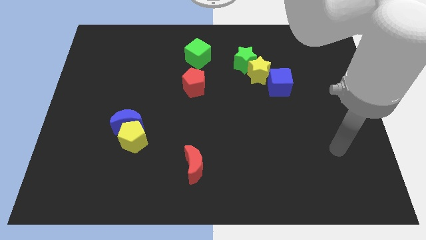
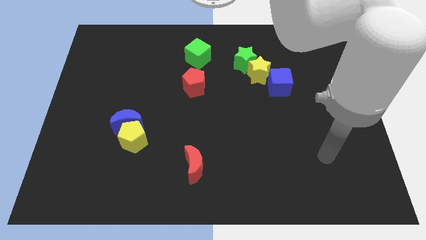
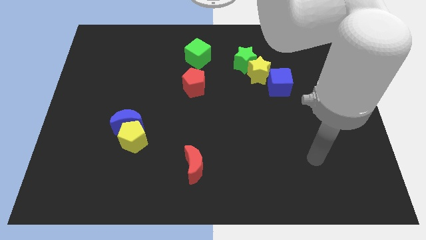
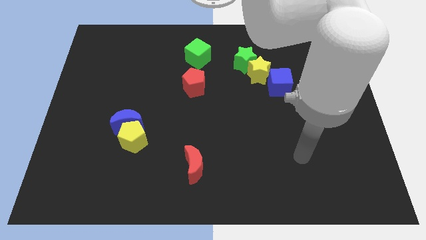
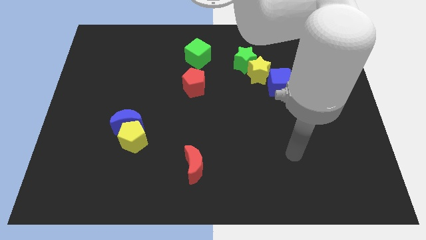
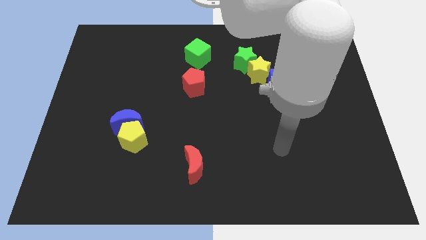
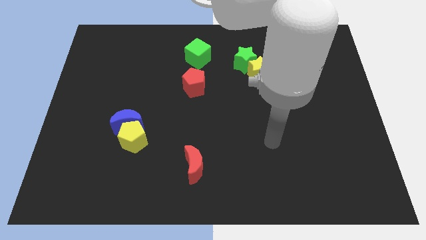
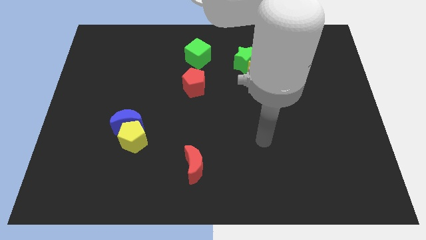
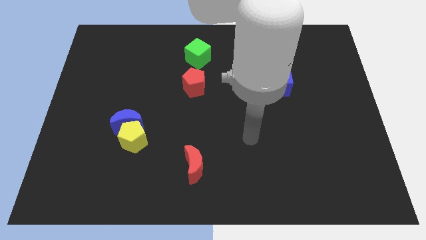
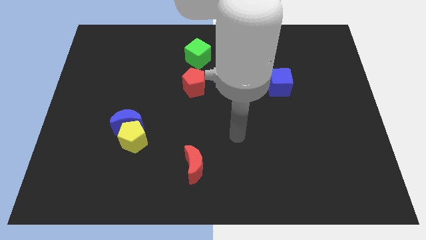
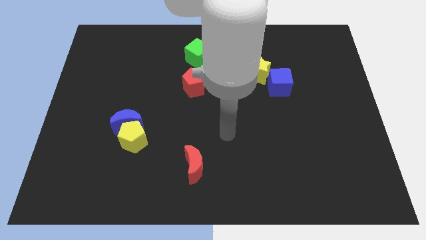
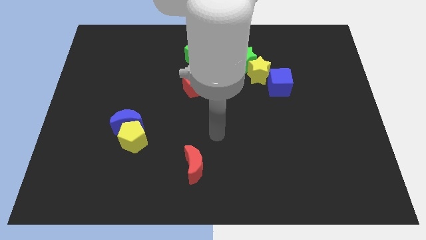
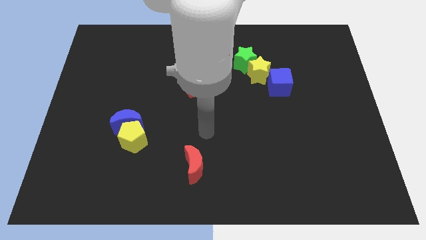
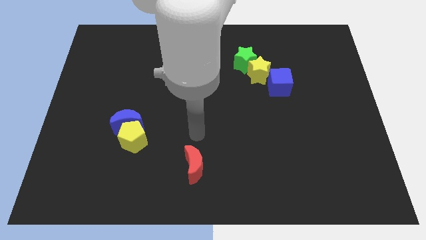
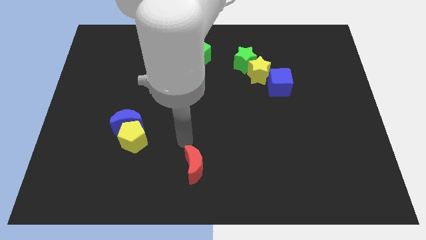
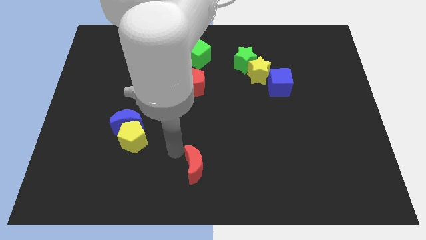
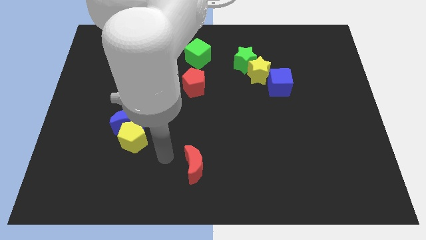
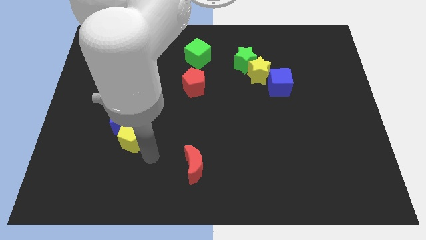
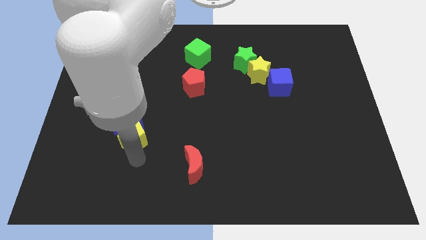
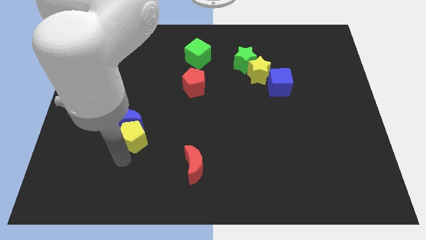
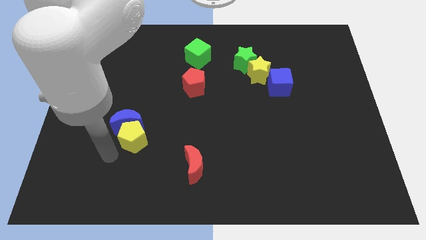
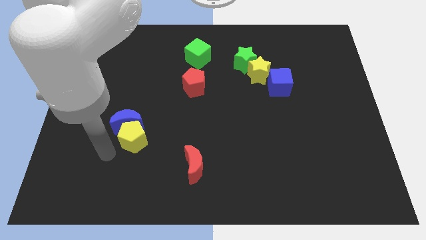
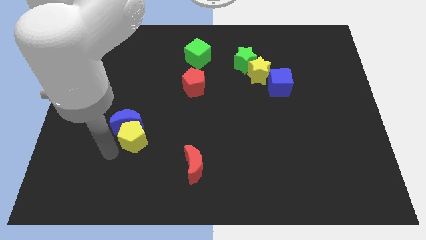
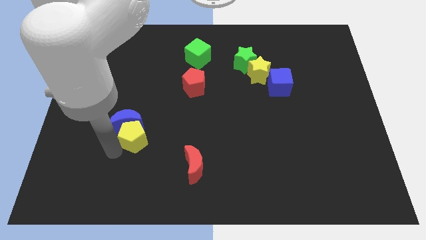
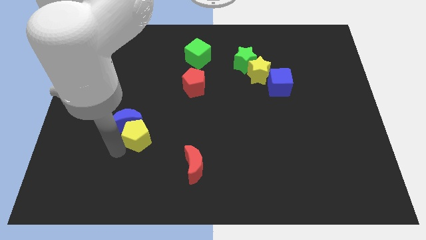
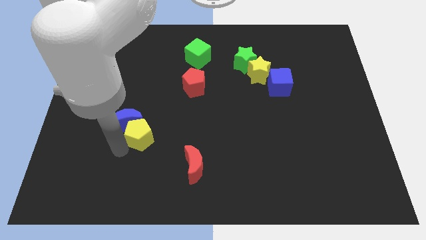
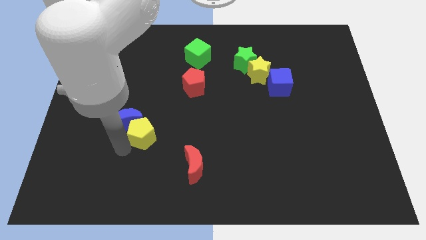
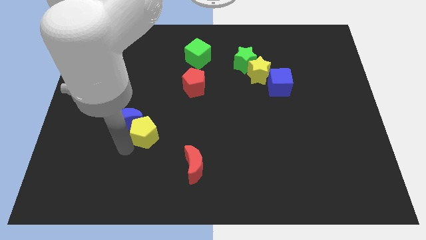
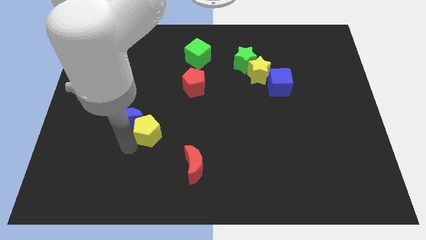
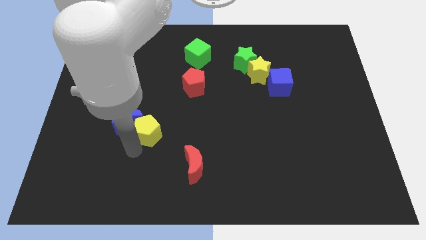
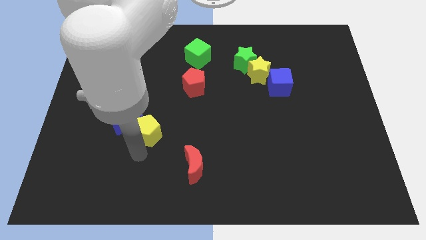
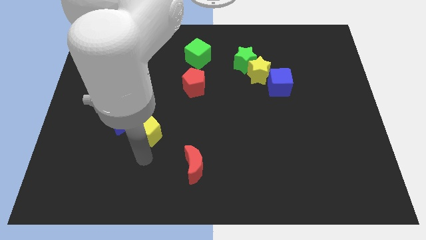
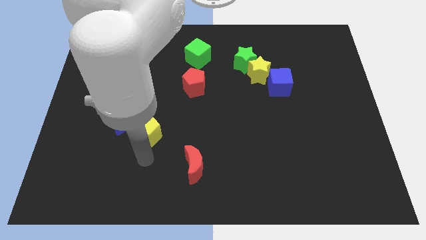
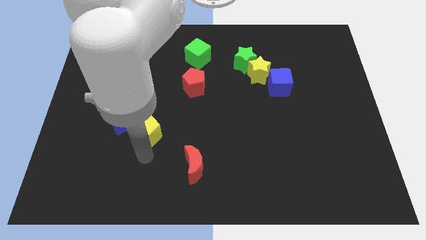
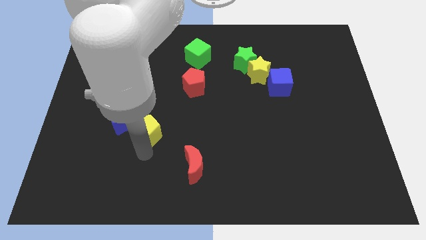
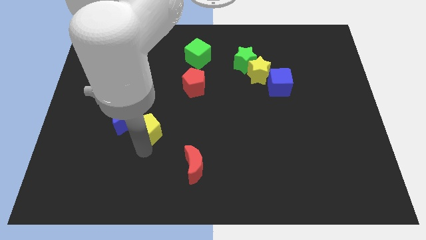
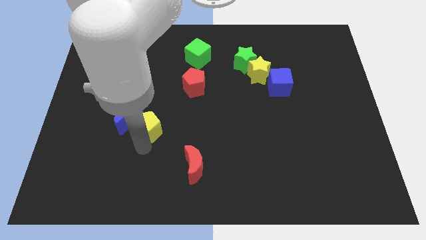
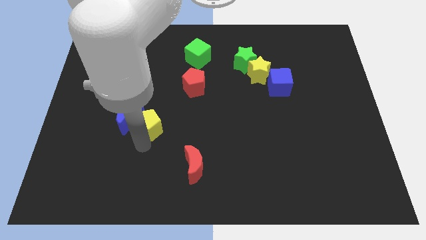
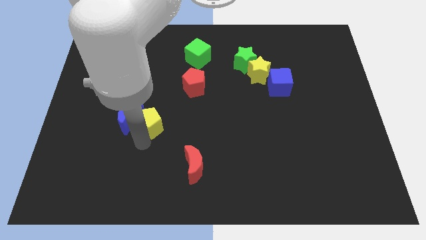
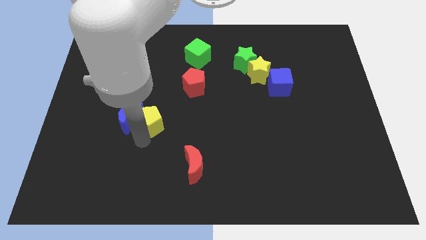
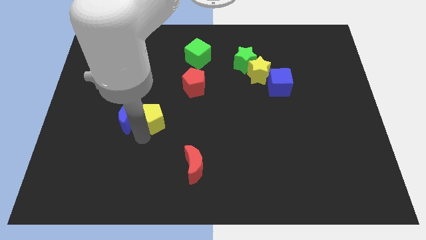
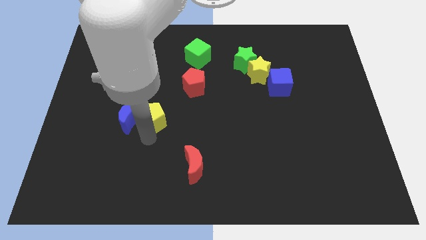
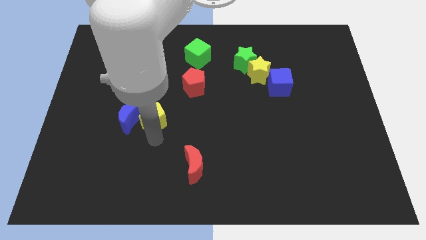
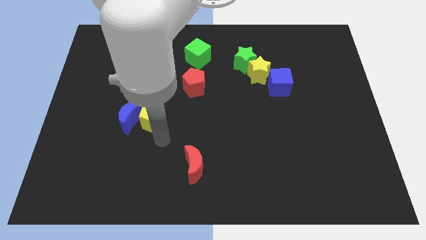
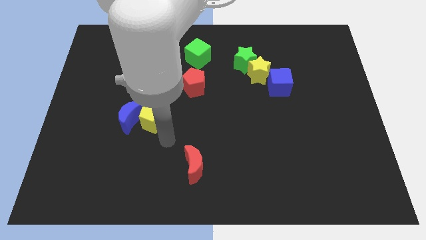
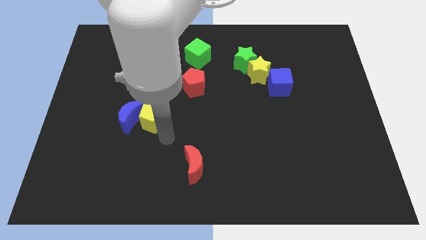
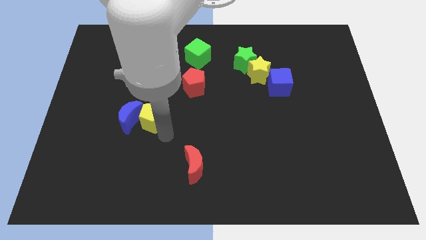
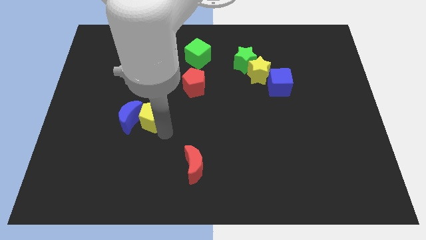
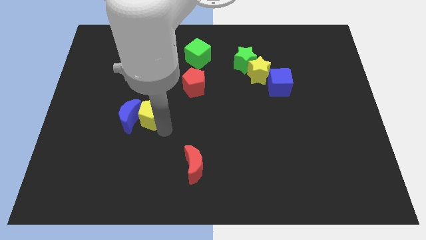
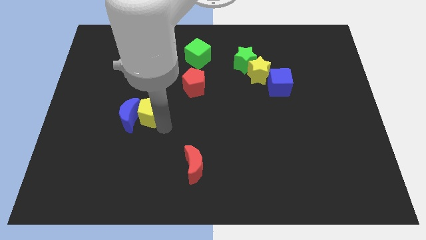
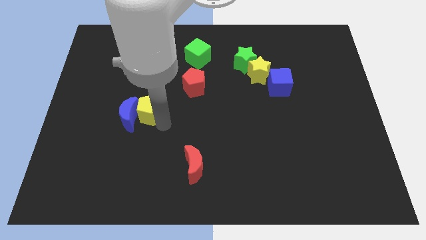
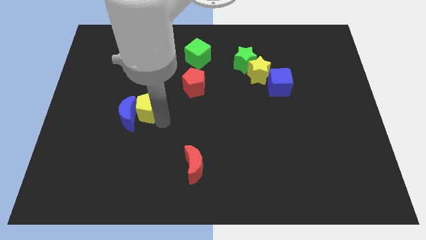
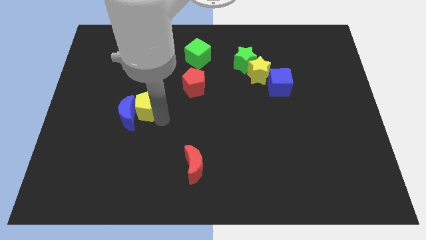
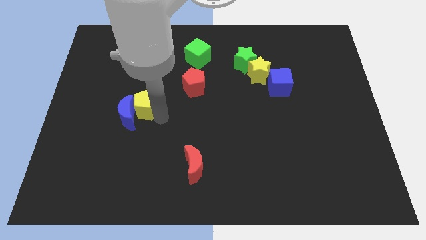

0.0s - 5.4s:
move the yellow pentagon to the top of the blue moon

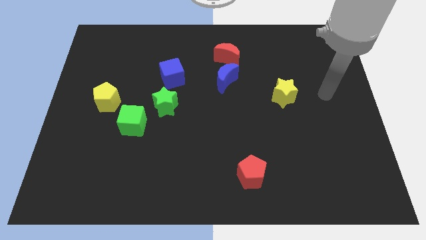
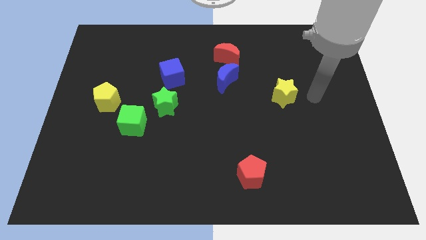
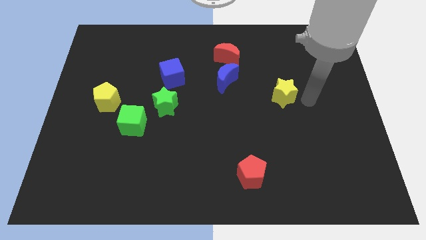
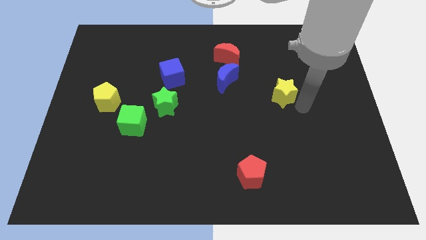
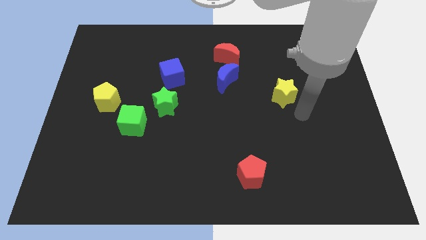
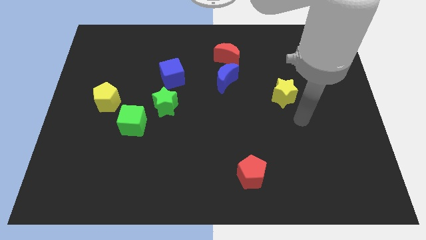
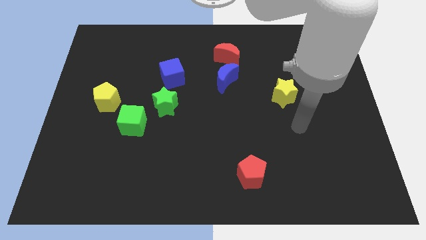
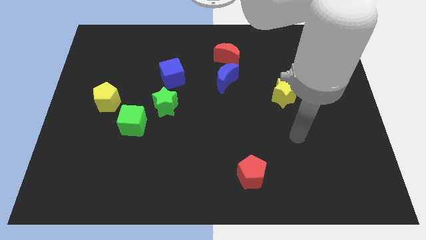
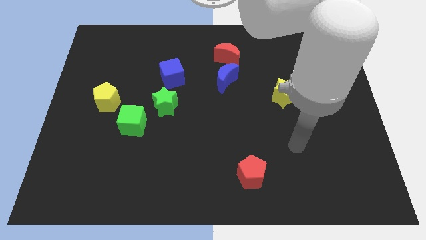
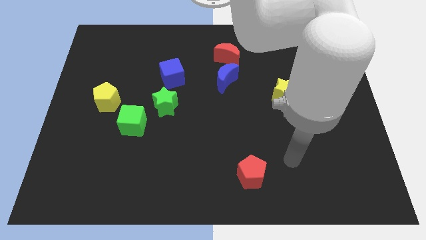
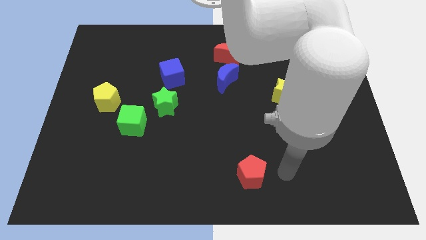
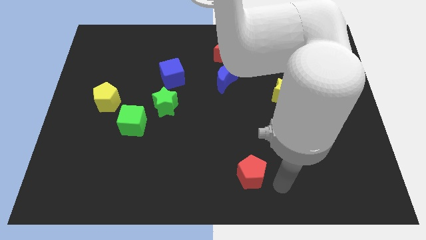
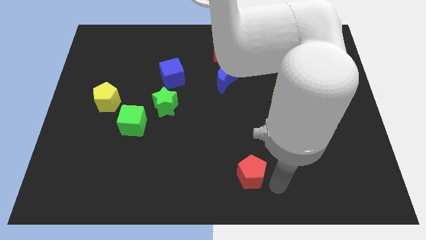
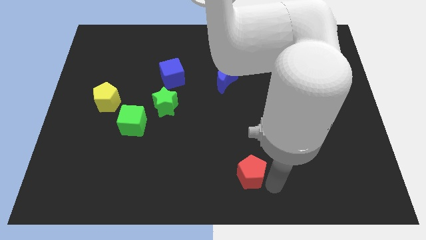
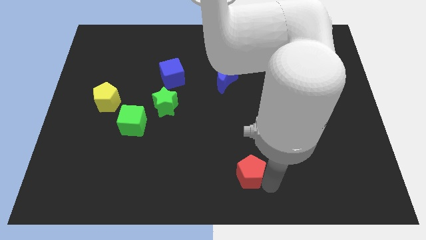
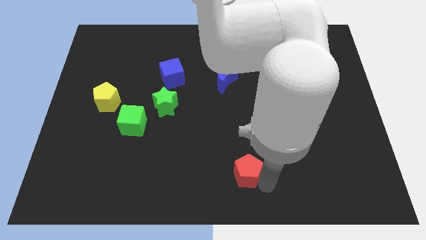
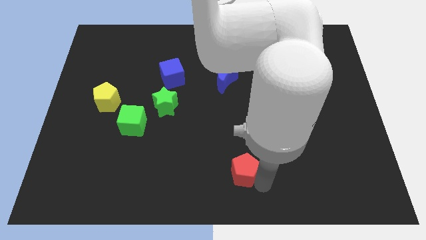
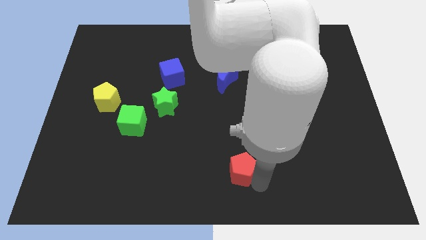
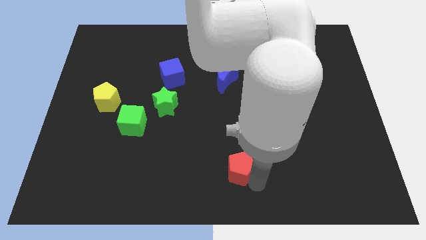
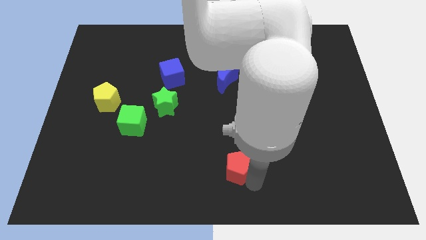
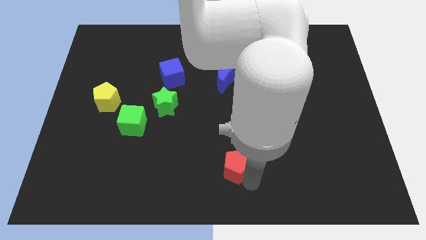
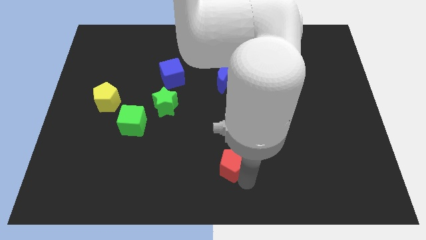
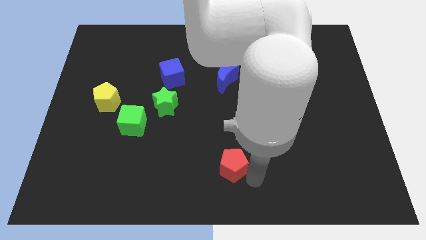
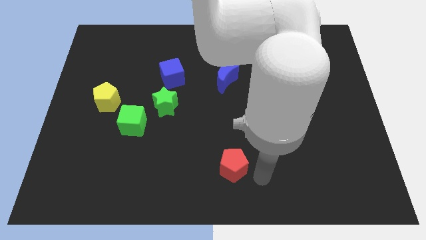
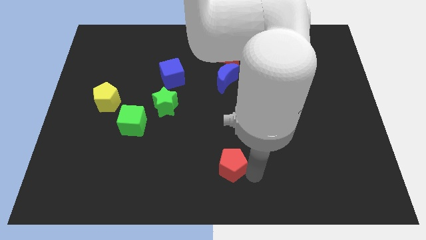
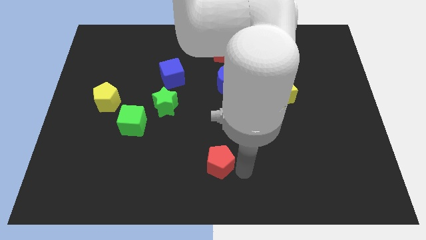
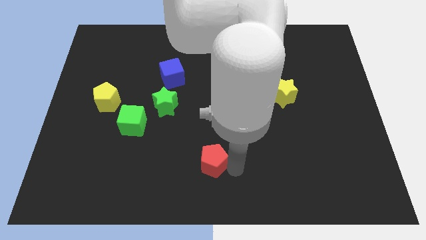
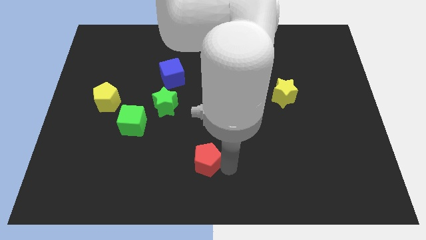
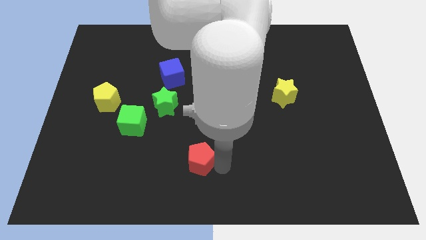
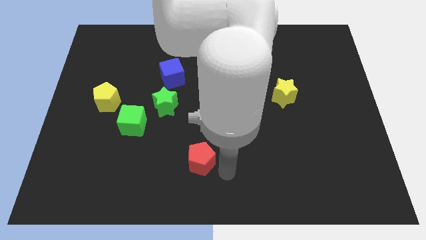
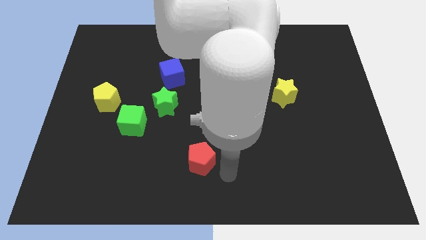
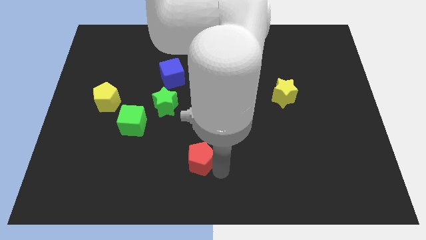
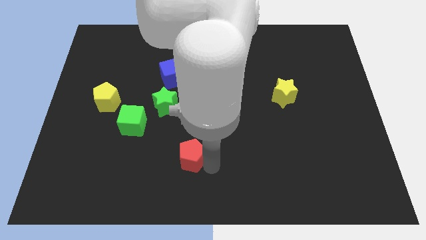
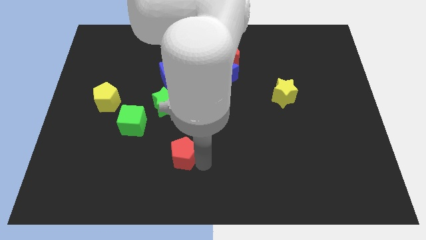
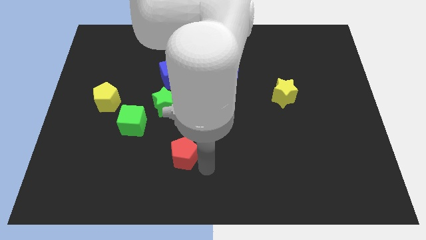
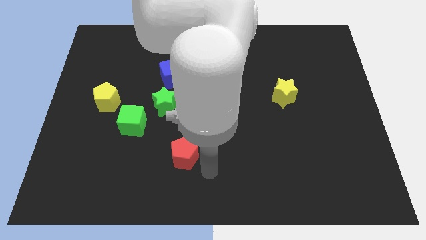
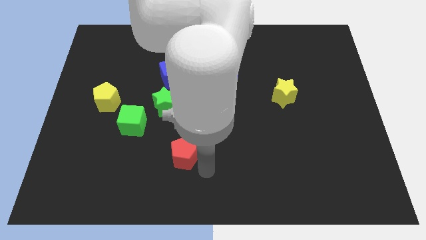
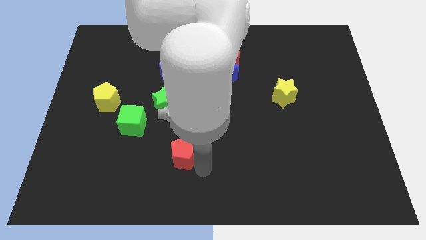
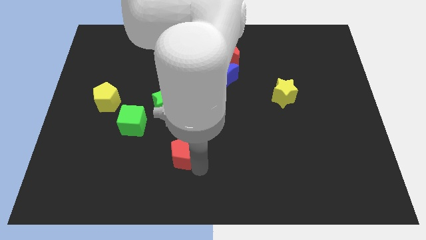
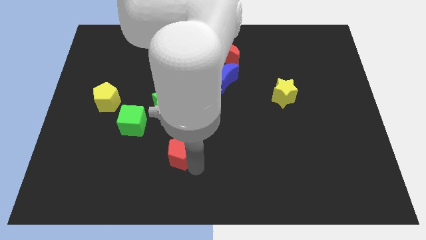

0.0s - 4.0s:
put the red pentagon to the bottom side of the green star
